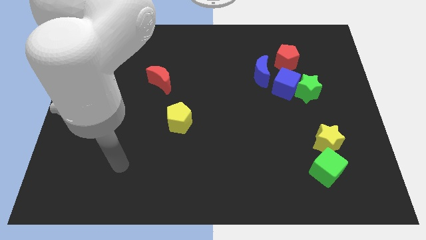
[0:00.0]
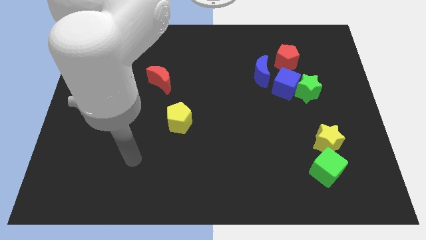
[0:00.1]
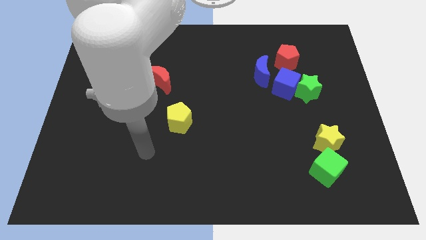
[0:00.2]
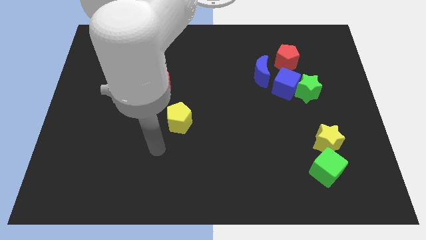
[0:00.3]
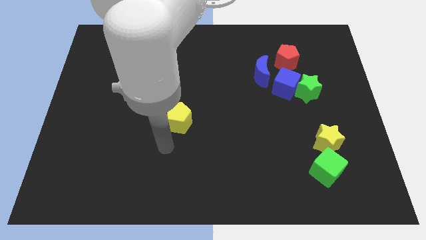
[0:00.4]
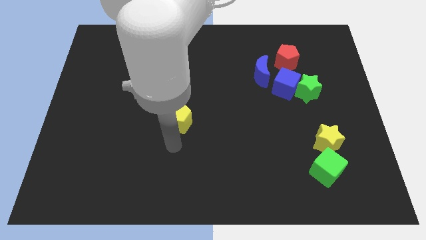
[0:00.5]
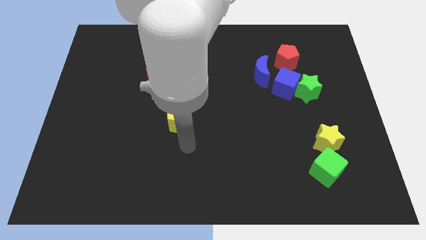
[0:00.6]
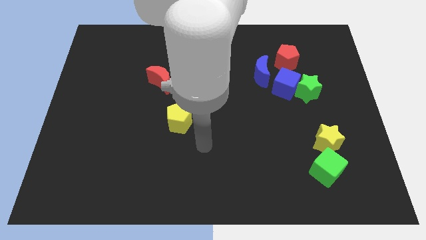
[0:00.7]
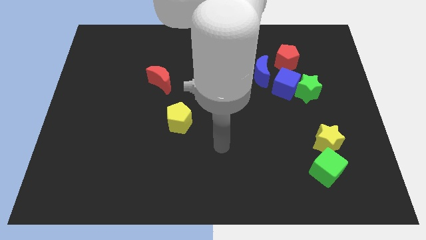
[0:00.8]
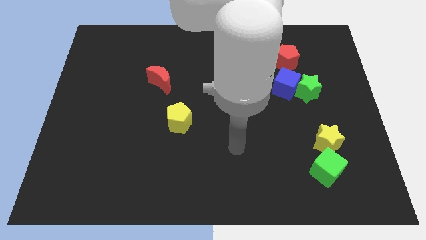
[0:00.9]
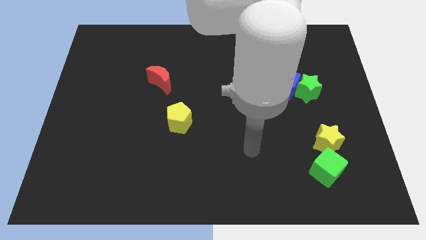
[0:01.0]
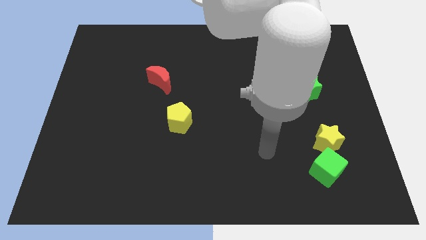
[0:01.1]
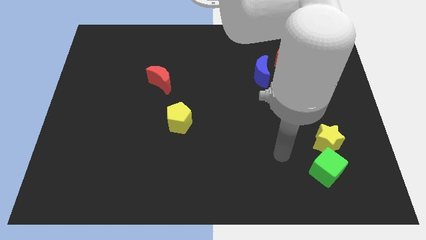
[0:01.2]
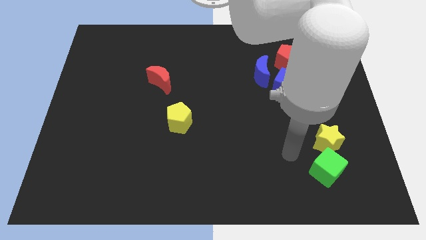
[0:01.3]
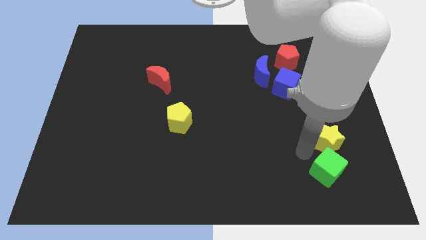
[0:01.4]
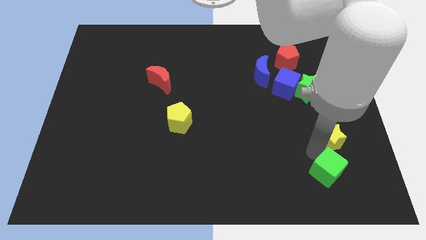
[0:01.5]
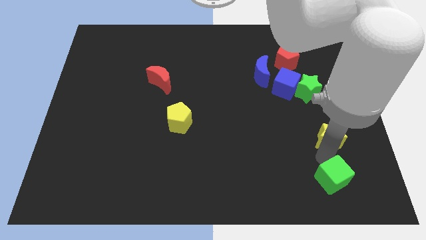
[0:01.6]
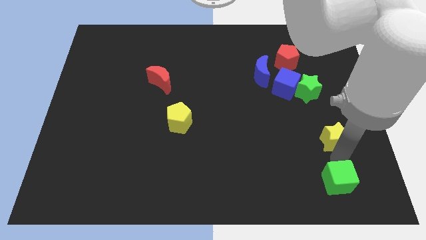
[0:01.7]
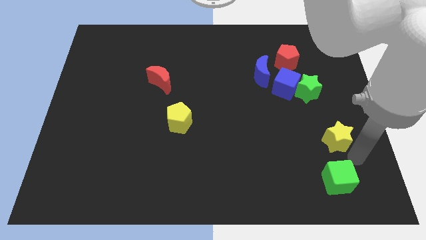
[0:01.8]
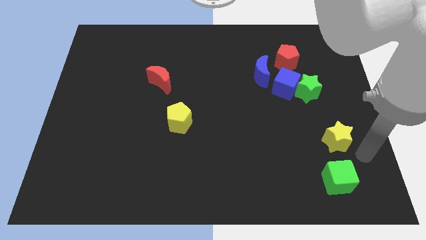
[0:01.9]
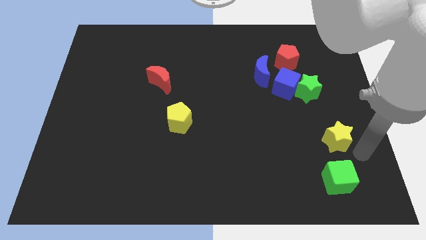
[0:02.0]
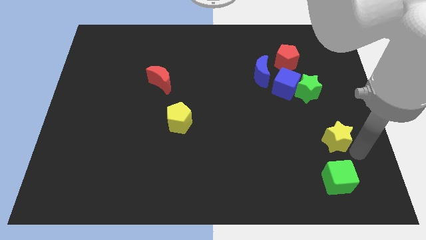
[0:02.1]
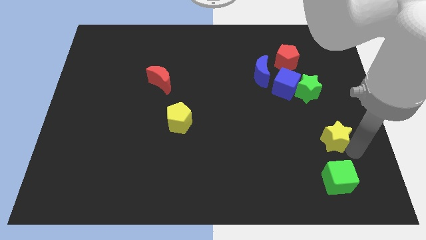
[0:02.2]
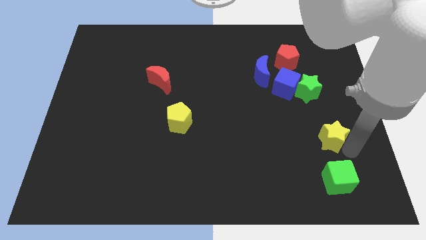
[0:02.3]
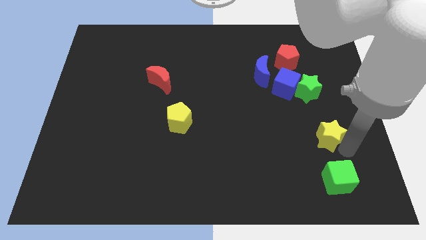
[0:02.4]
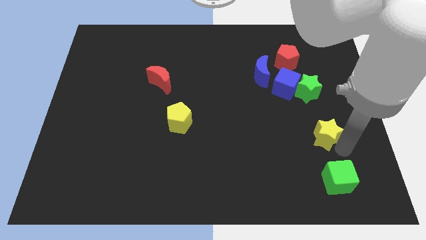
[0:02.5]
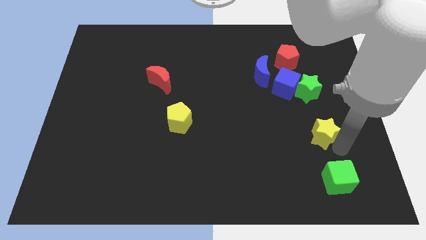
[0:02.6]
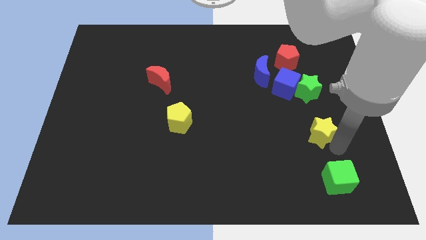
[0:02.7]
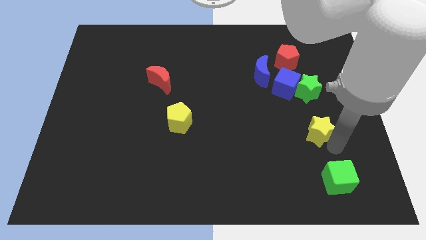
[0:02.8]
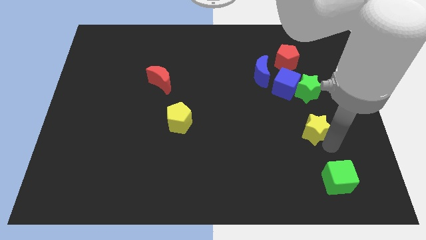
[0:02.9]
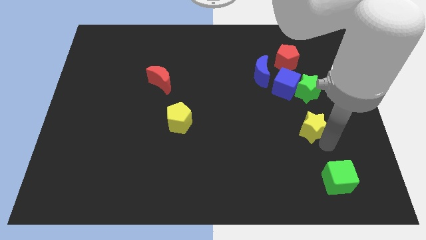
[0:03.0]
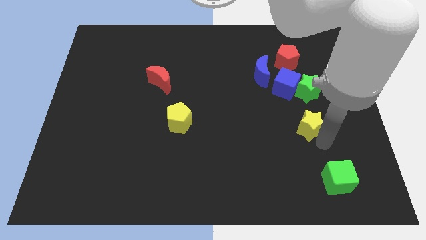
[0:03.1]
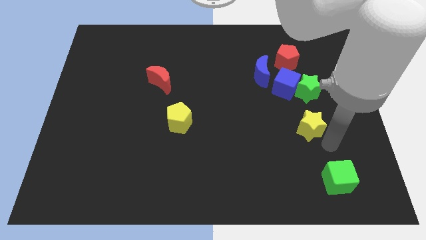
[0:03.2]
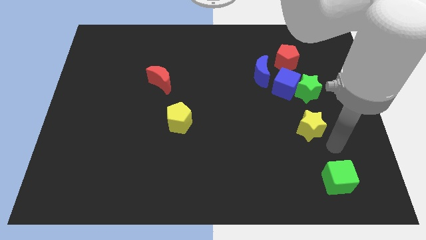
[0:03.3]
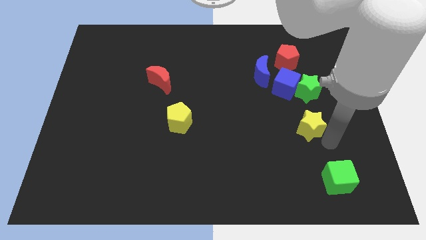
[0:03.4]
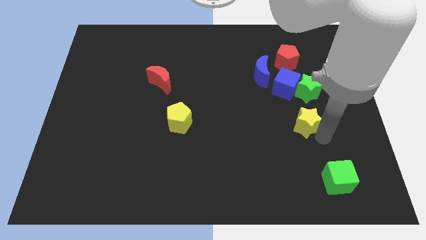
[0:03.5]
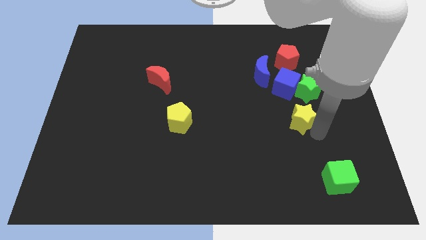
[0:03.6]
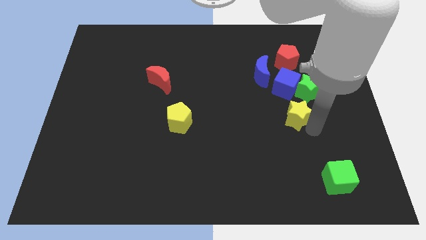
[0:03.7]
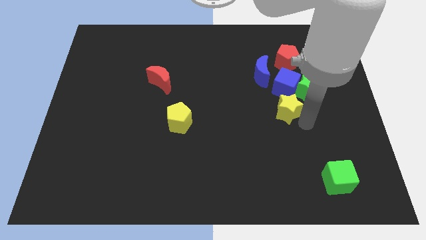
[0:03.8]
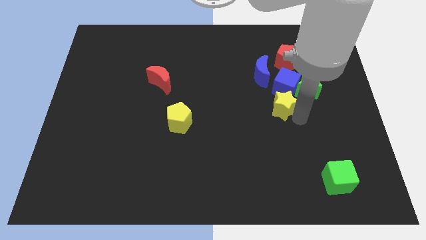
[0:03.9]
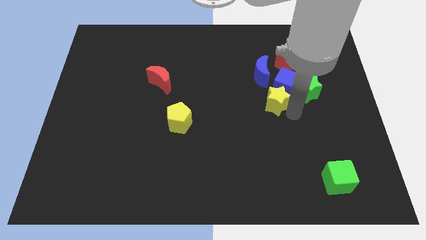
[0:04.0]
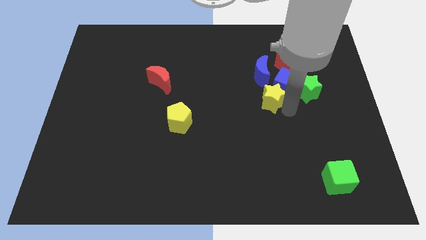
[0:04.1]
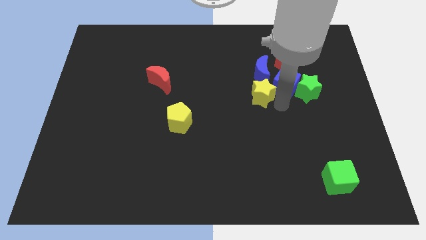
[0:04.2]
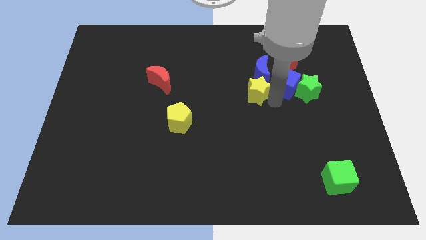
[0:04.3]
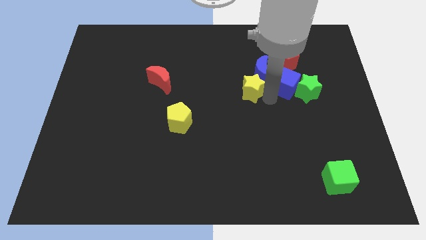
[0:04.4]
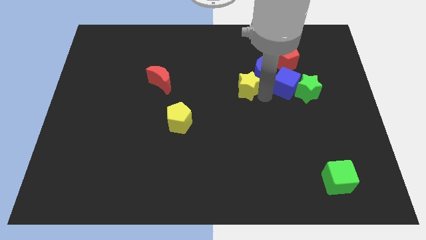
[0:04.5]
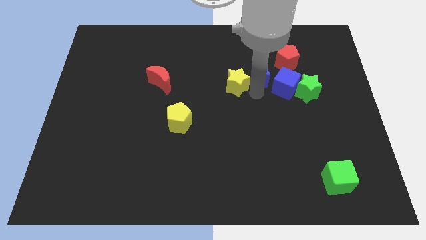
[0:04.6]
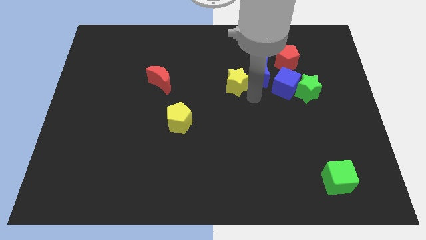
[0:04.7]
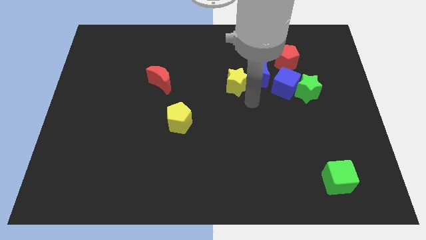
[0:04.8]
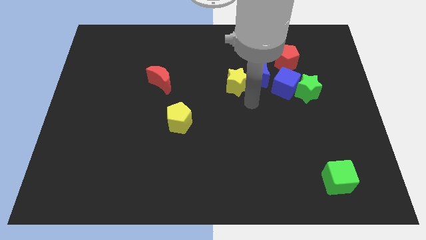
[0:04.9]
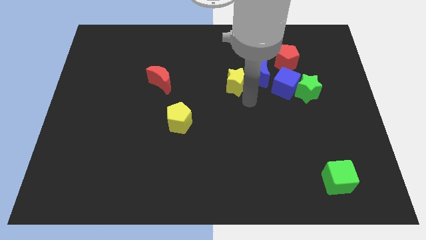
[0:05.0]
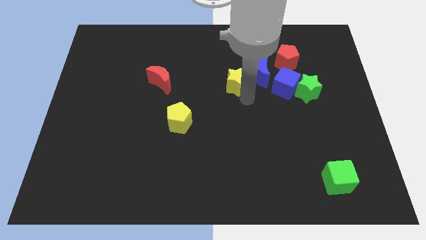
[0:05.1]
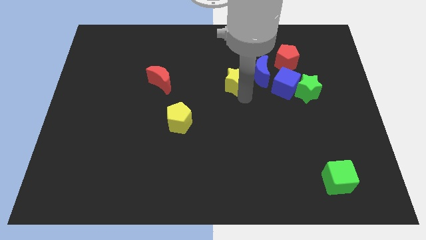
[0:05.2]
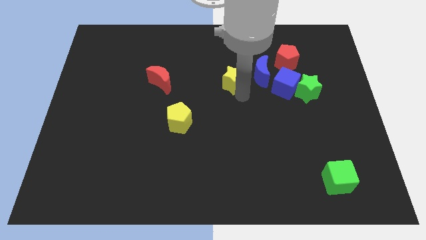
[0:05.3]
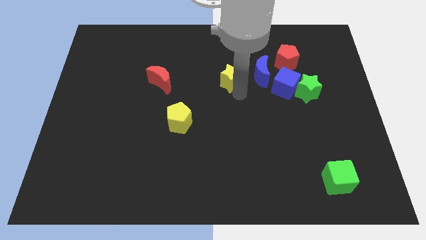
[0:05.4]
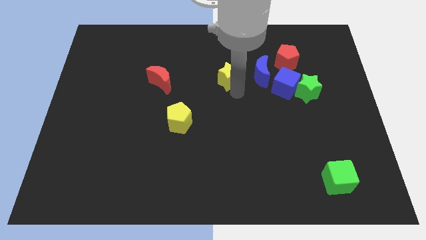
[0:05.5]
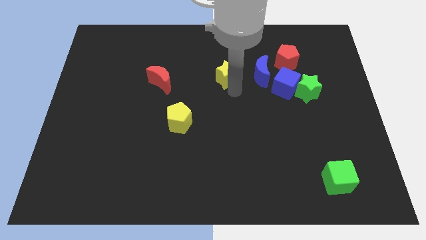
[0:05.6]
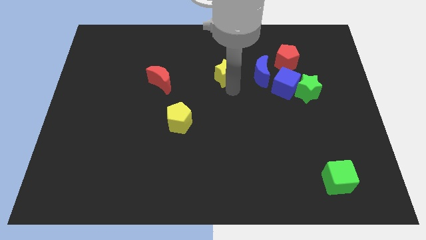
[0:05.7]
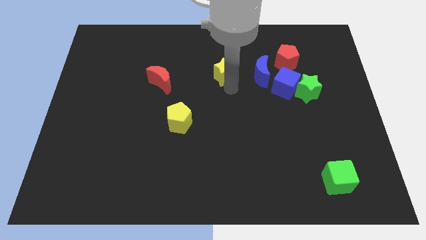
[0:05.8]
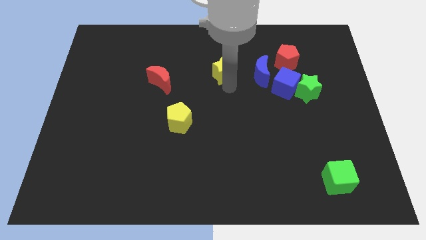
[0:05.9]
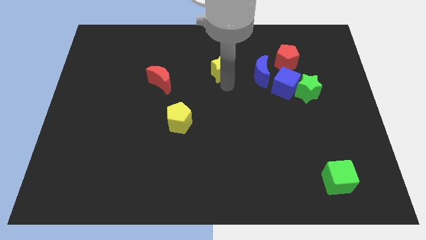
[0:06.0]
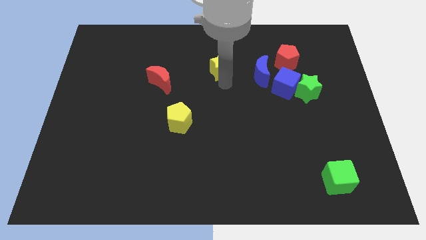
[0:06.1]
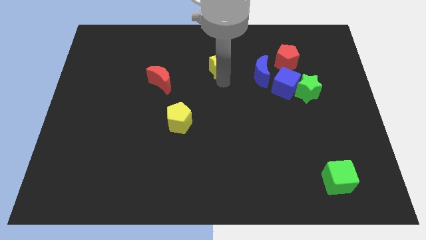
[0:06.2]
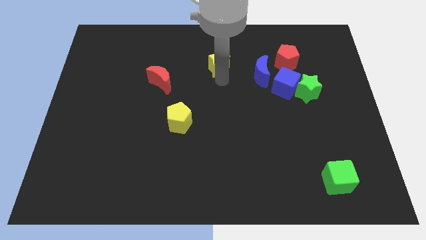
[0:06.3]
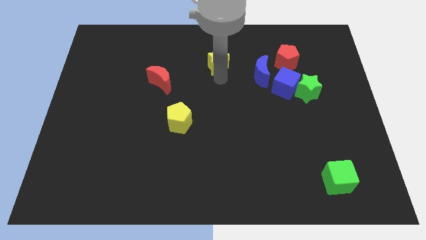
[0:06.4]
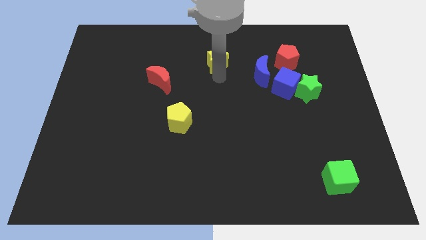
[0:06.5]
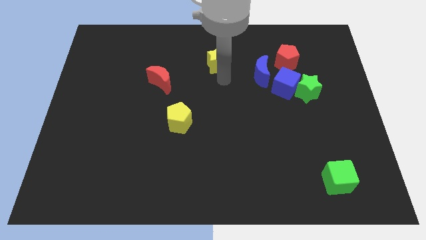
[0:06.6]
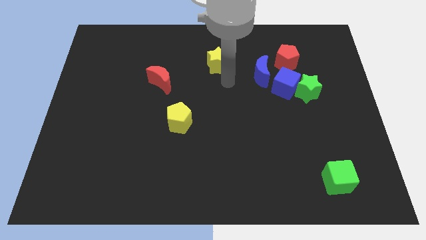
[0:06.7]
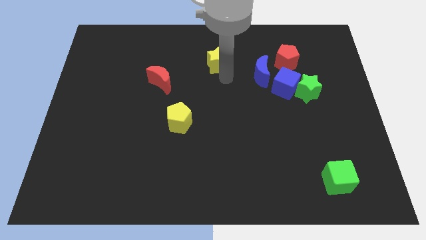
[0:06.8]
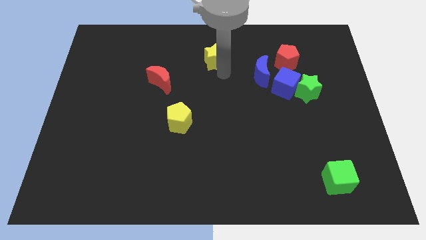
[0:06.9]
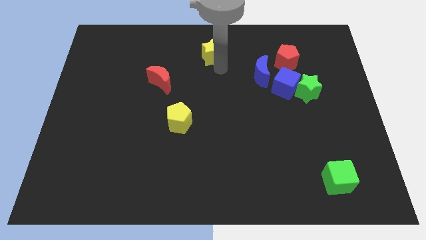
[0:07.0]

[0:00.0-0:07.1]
push the yellow star to the top side
